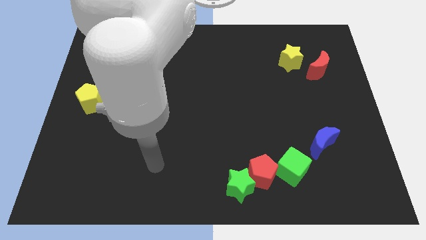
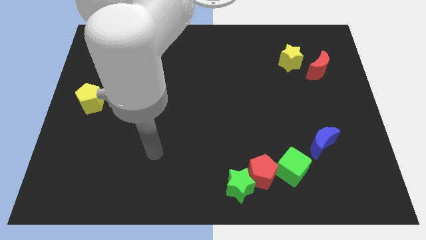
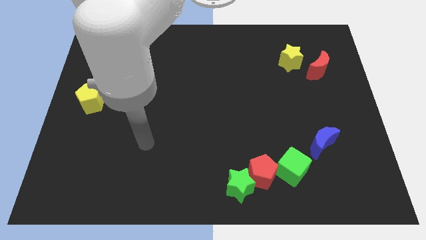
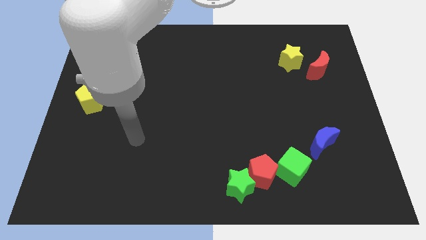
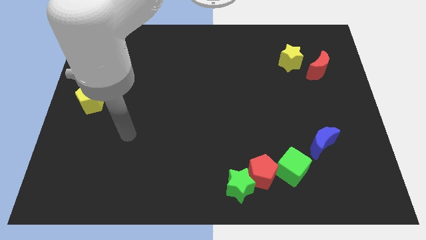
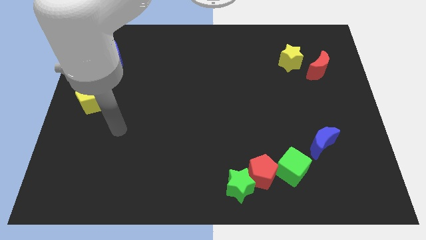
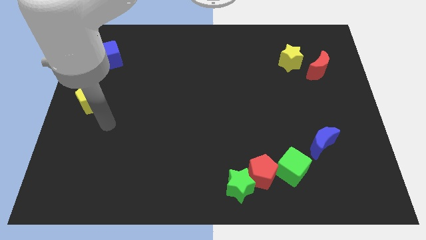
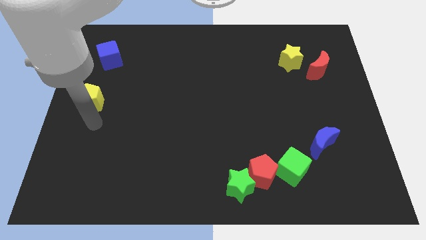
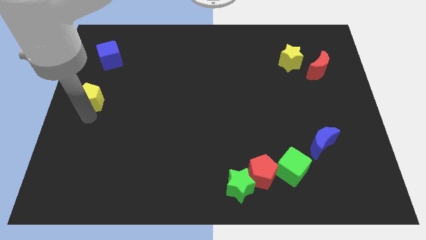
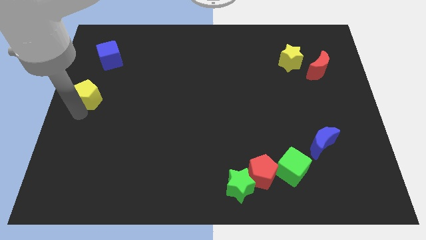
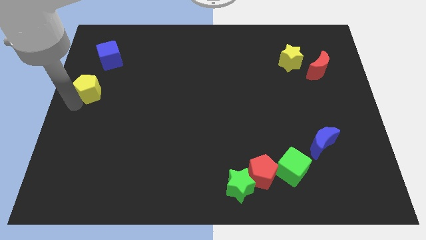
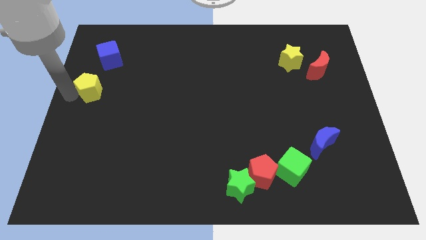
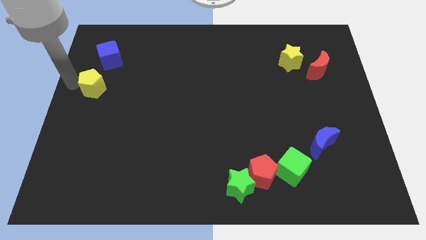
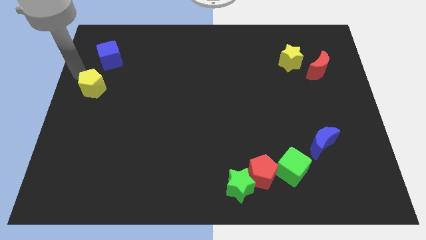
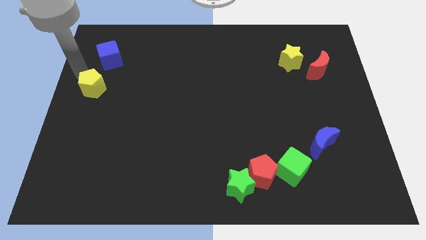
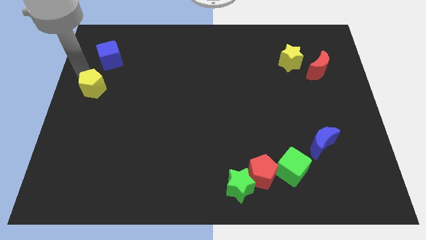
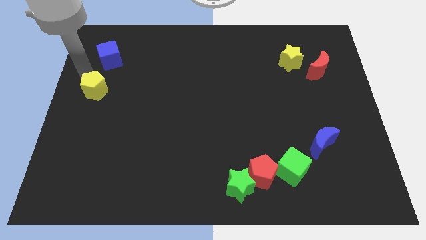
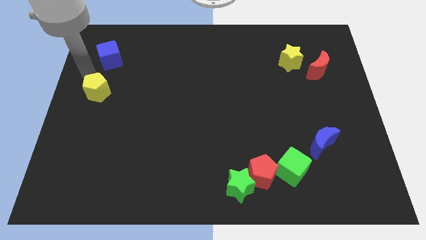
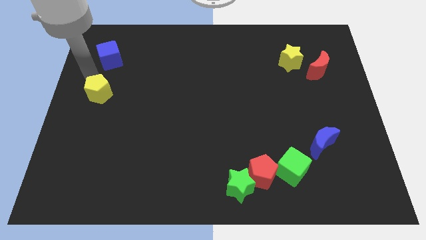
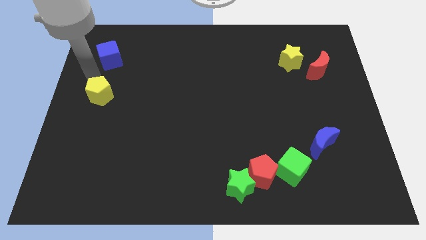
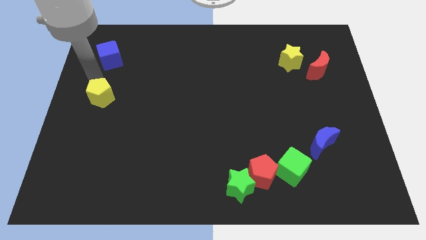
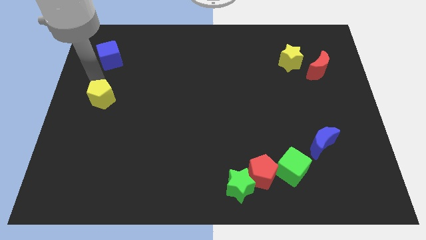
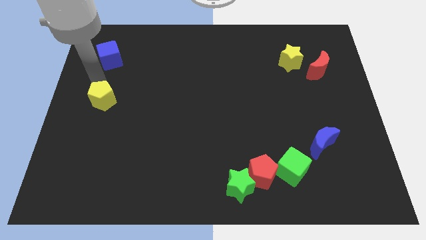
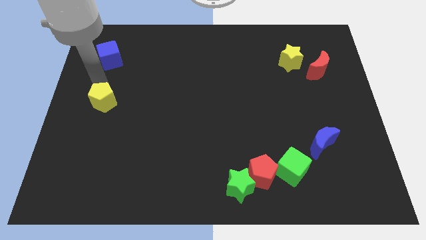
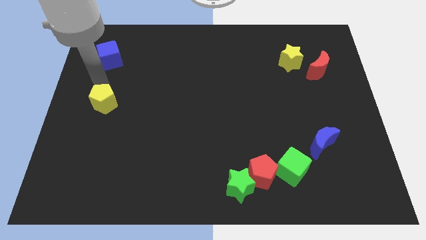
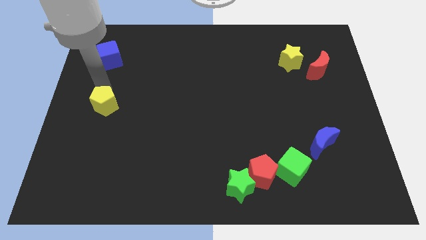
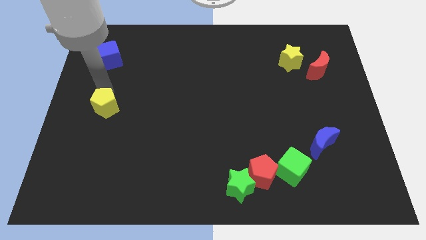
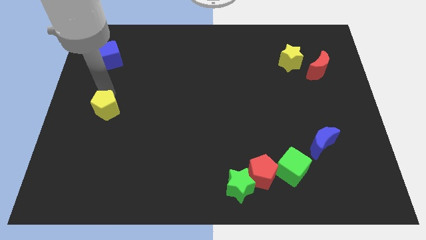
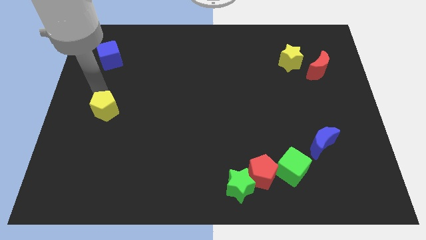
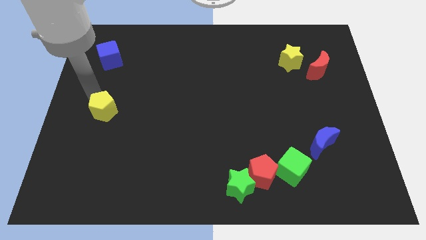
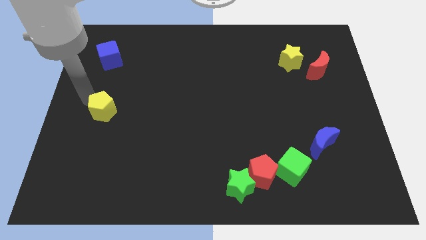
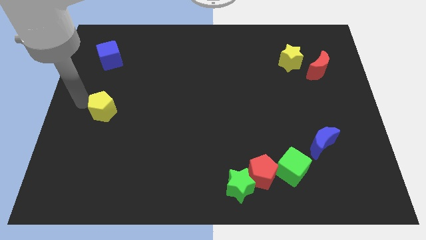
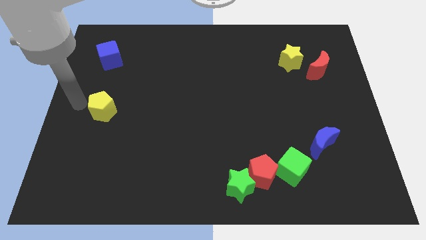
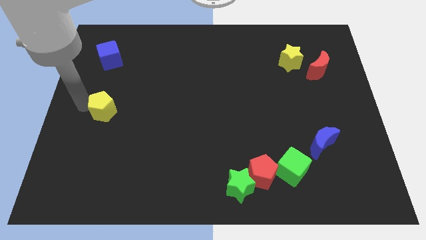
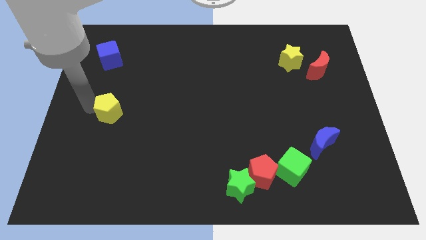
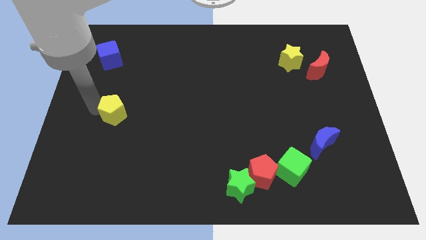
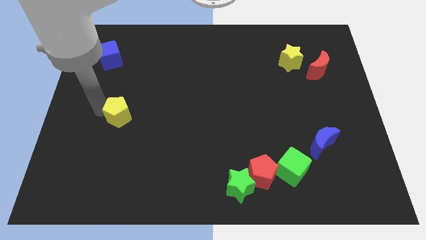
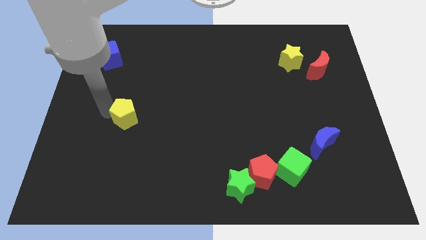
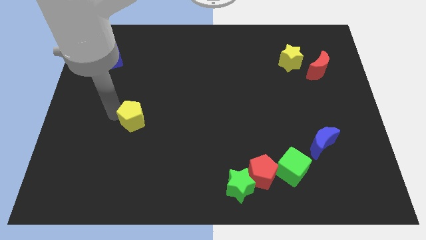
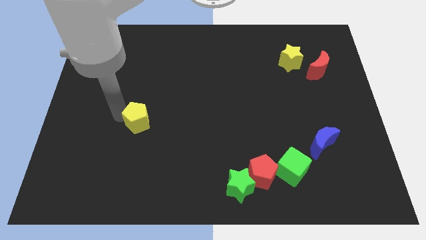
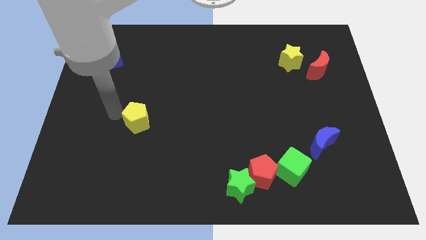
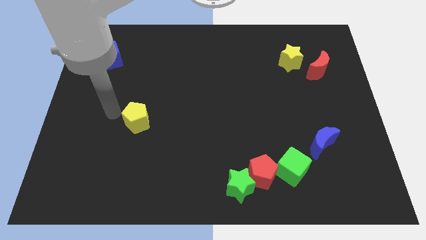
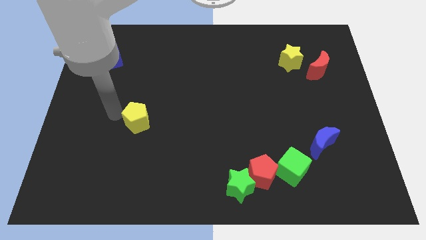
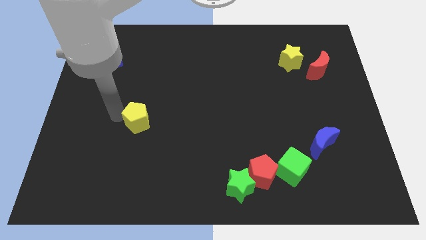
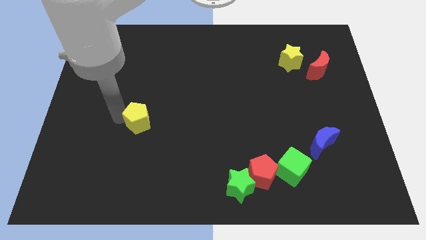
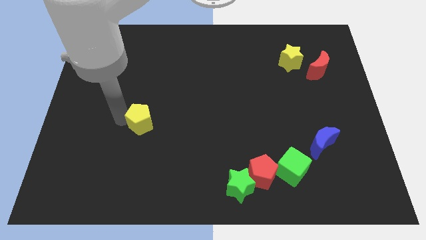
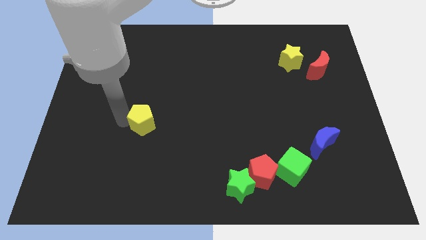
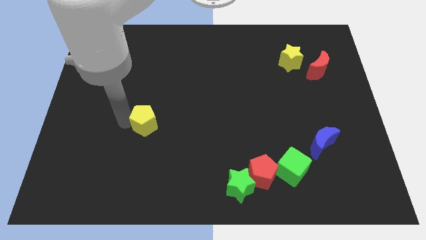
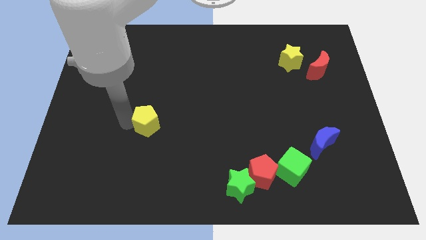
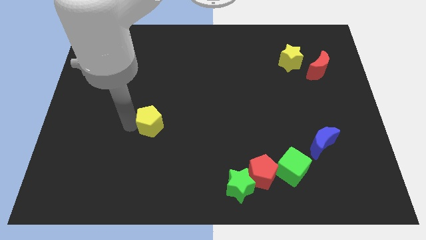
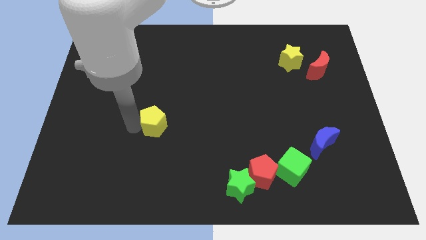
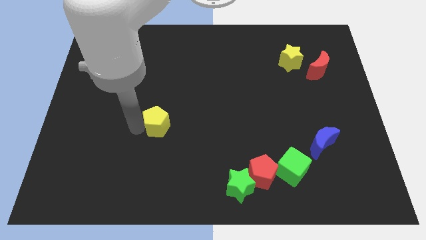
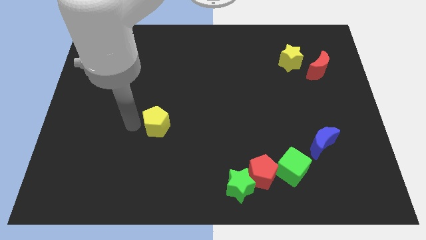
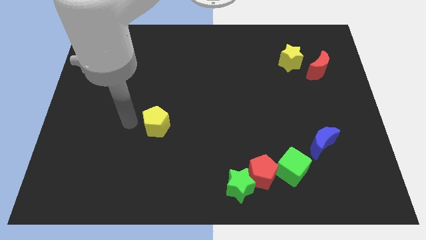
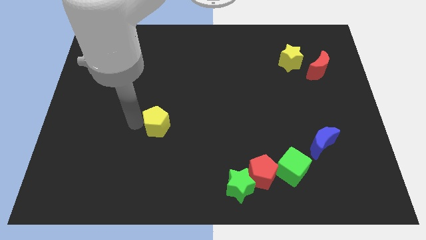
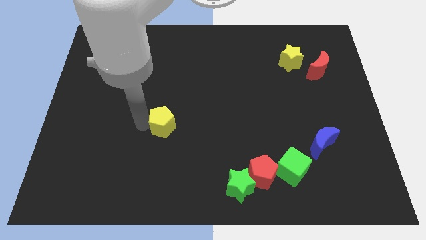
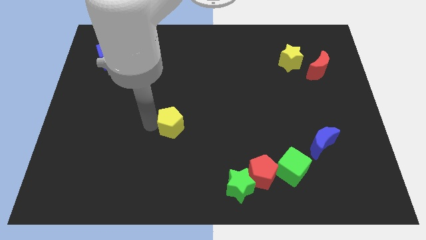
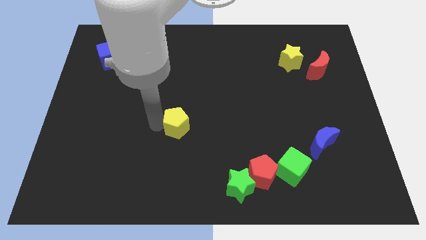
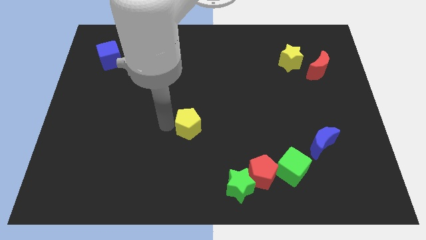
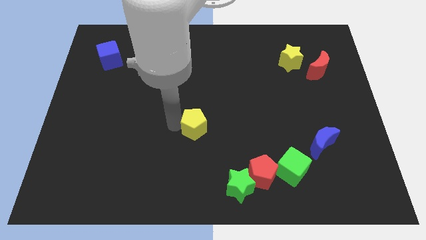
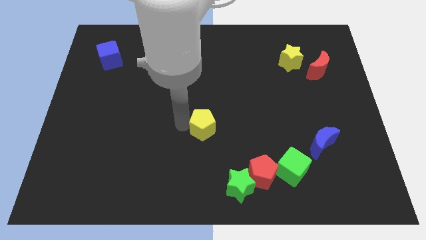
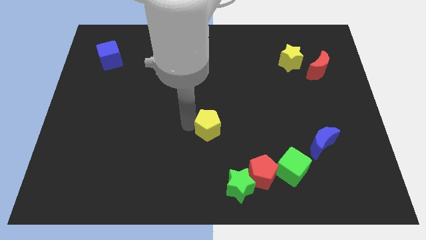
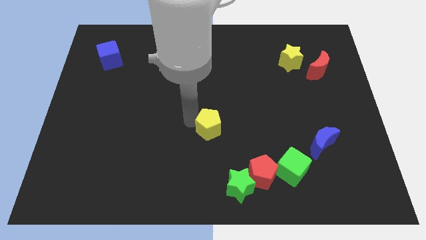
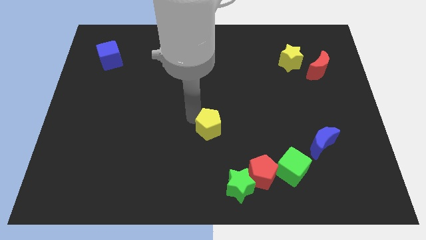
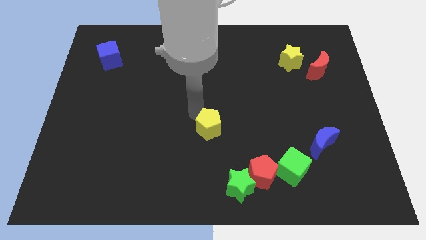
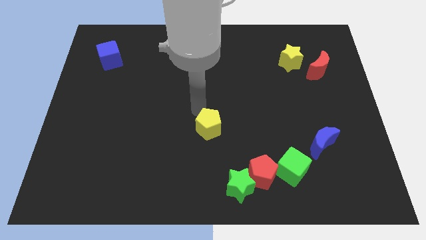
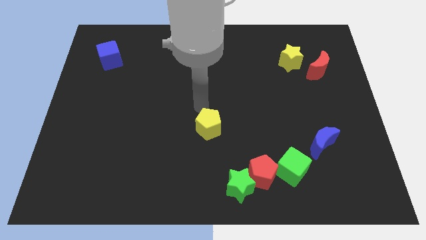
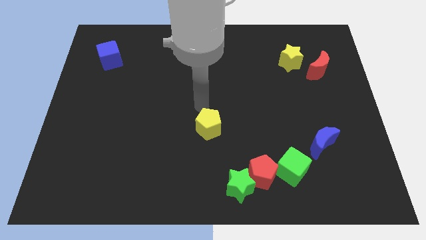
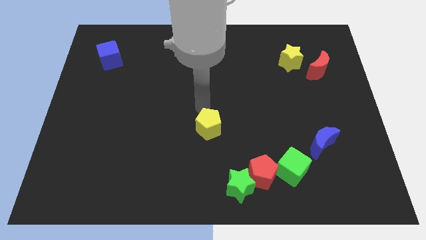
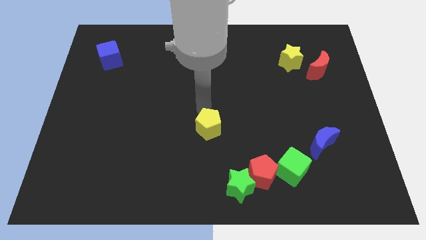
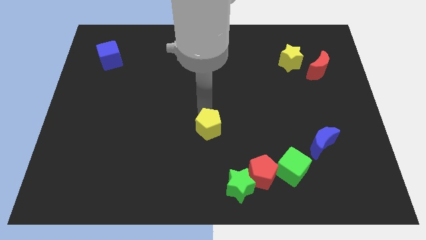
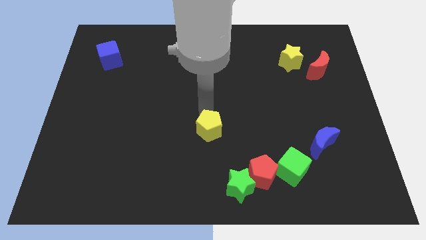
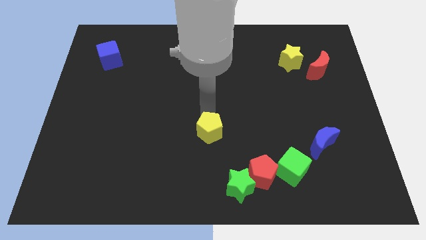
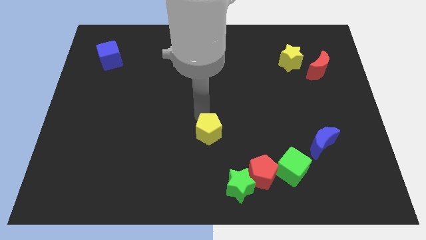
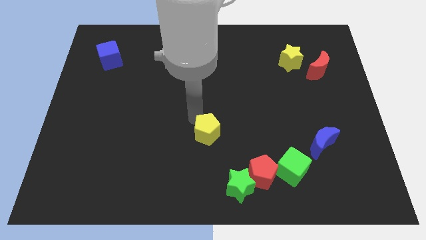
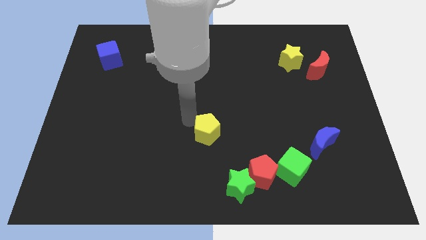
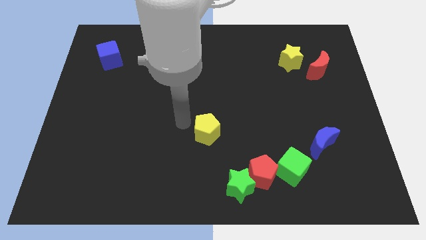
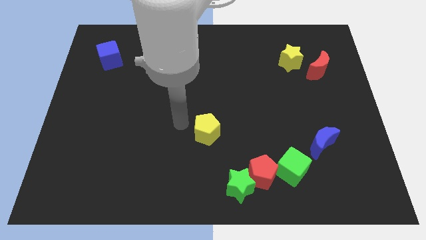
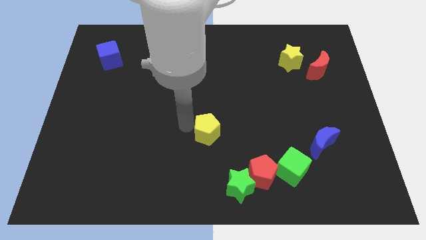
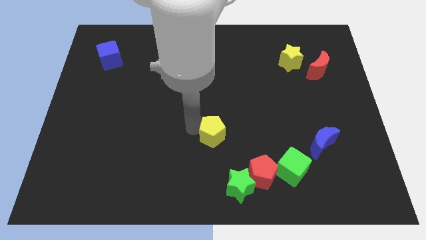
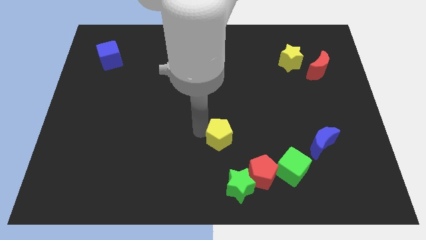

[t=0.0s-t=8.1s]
put the yellow pentagon to the top of the green star
